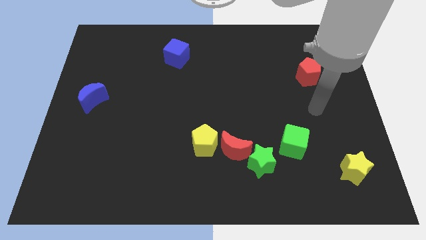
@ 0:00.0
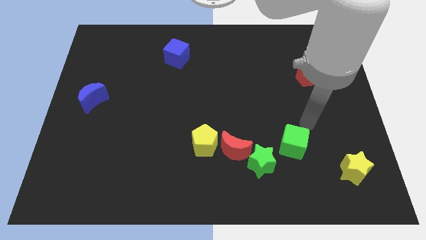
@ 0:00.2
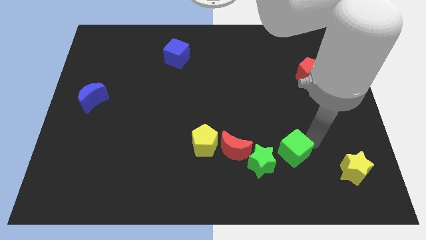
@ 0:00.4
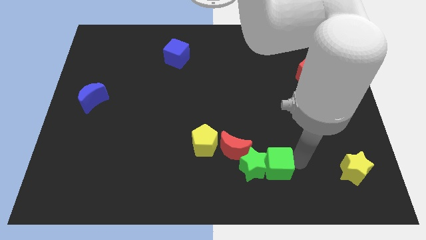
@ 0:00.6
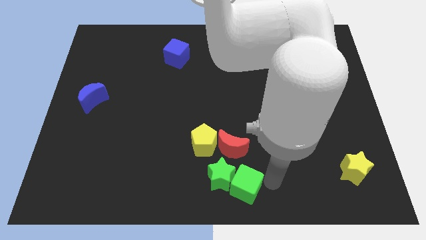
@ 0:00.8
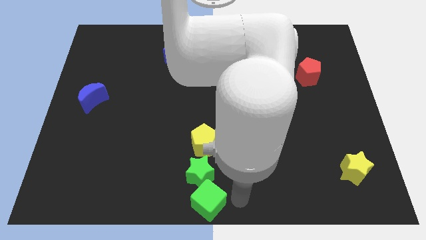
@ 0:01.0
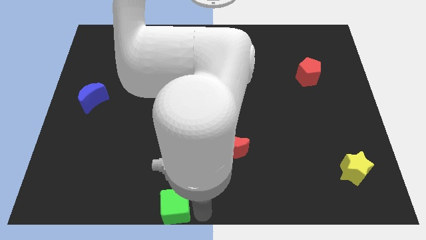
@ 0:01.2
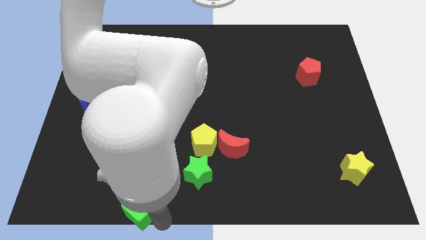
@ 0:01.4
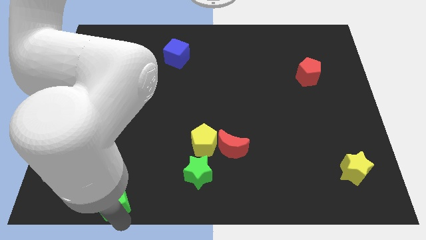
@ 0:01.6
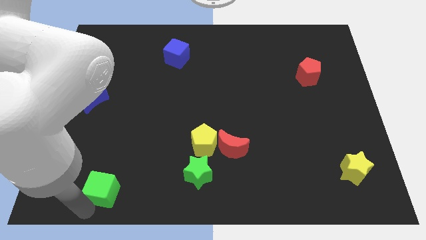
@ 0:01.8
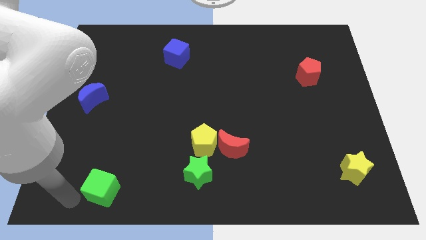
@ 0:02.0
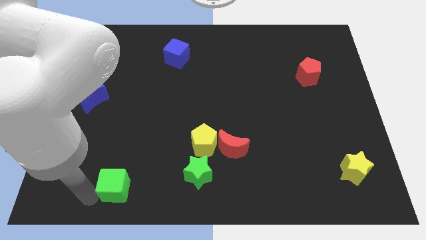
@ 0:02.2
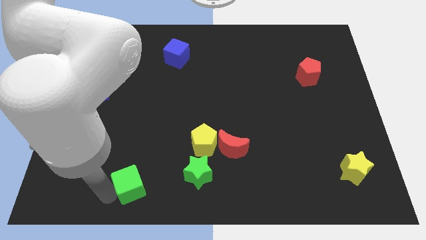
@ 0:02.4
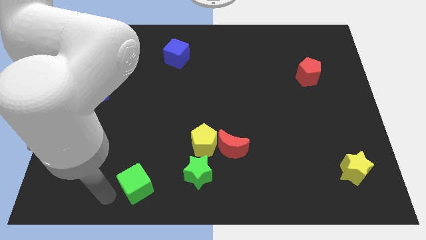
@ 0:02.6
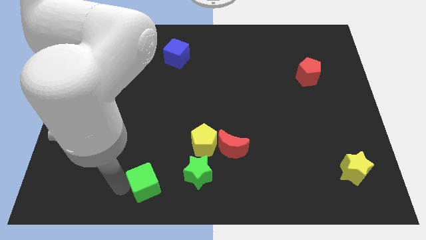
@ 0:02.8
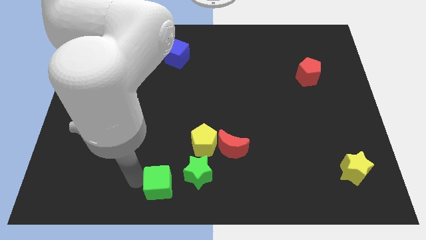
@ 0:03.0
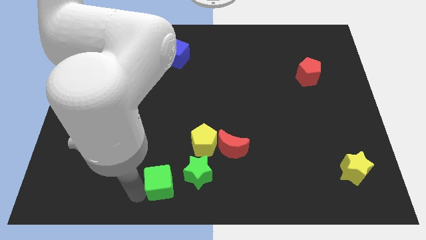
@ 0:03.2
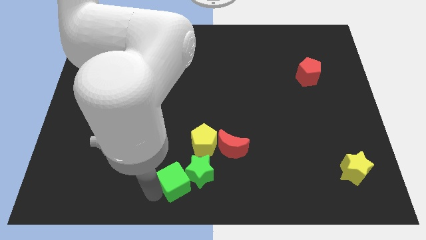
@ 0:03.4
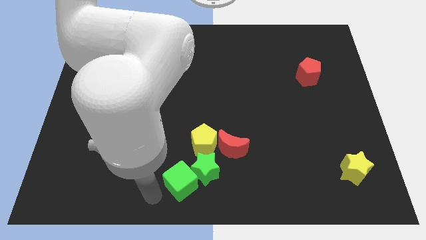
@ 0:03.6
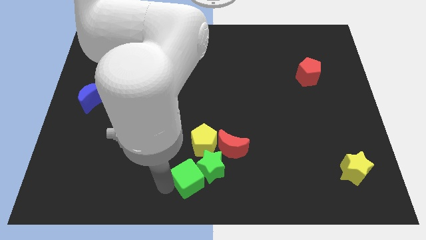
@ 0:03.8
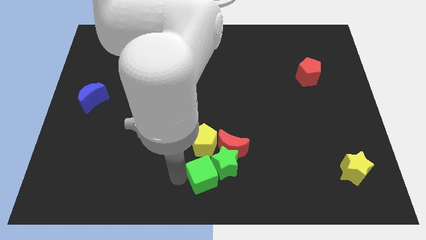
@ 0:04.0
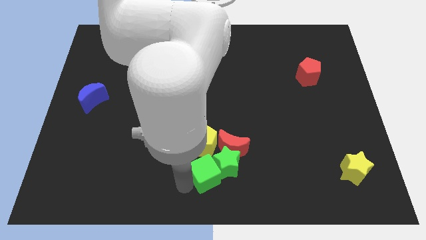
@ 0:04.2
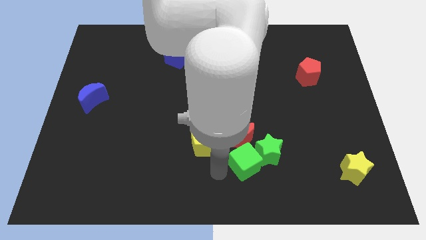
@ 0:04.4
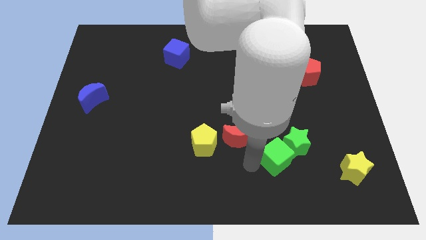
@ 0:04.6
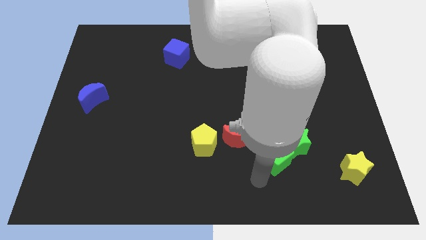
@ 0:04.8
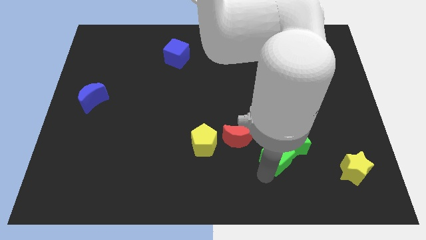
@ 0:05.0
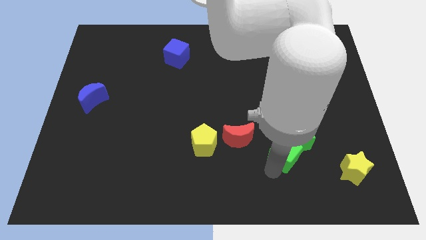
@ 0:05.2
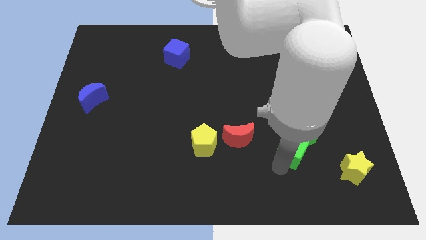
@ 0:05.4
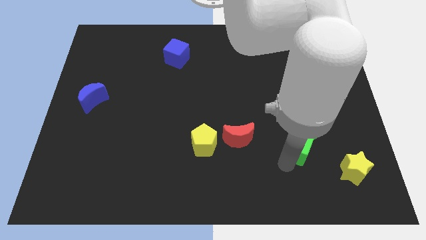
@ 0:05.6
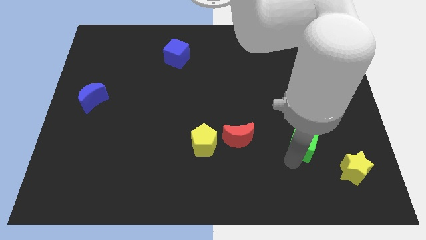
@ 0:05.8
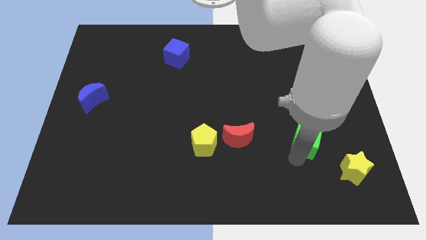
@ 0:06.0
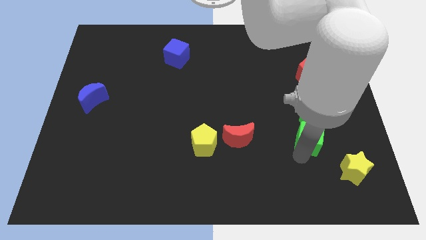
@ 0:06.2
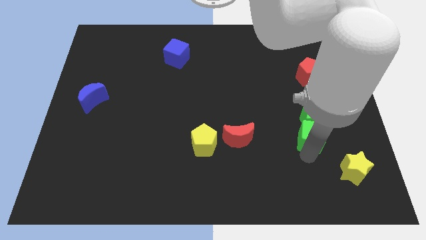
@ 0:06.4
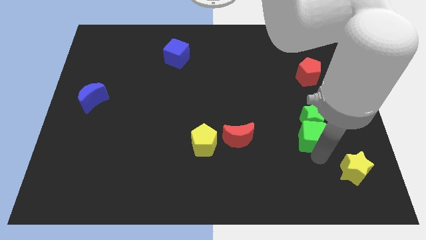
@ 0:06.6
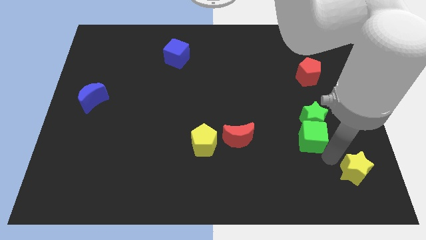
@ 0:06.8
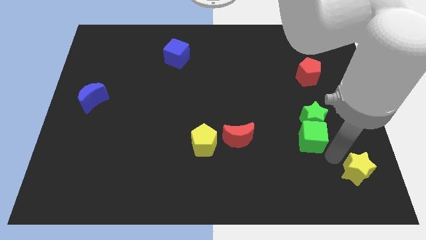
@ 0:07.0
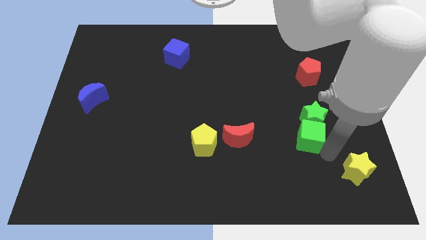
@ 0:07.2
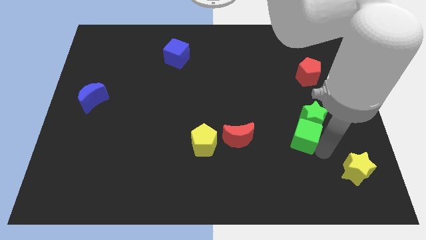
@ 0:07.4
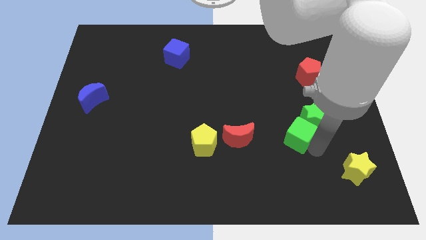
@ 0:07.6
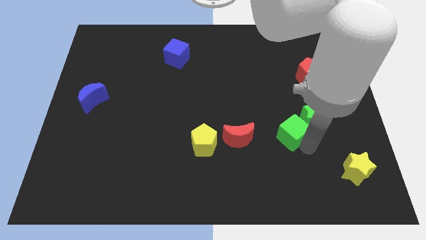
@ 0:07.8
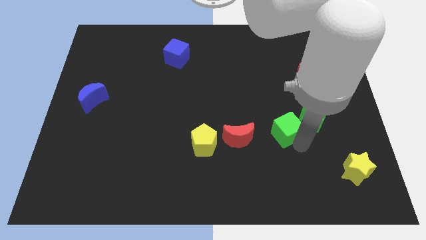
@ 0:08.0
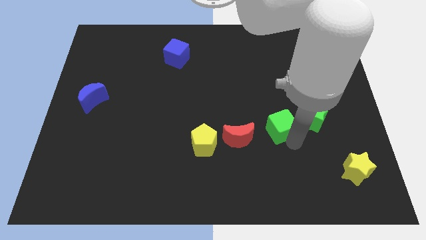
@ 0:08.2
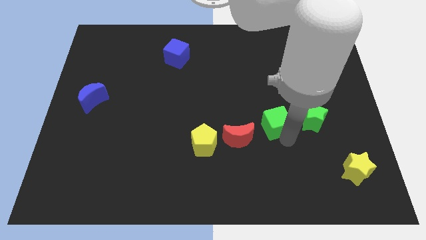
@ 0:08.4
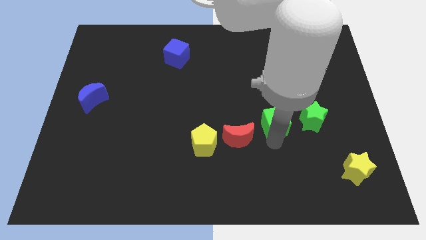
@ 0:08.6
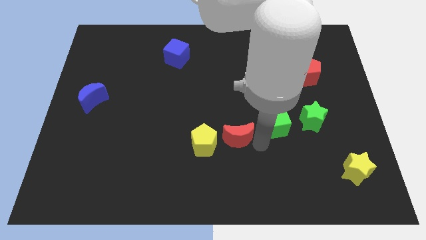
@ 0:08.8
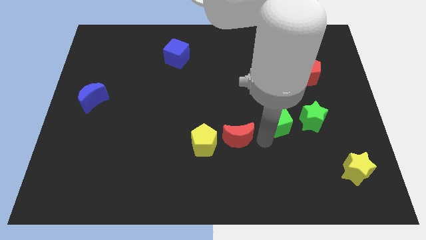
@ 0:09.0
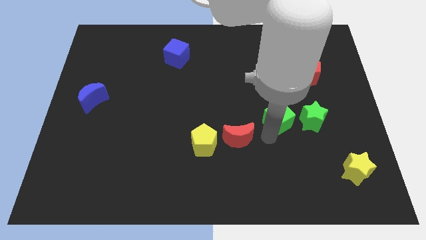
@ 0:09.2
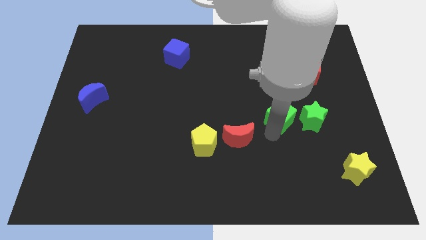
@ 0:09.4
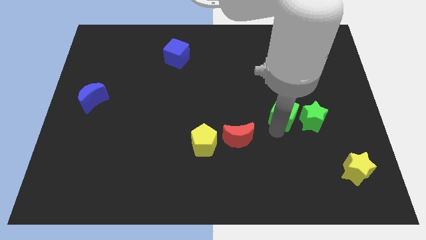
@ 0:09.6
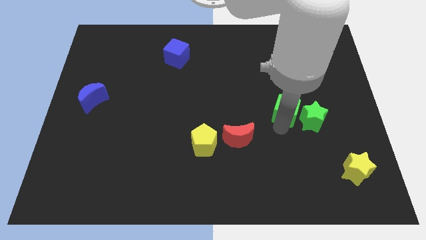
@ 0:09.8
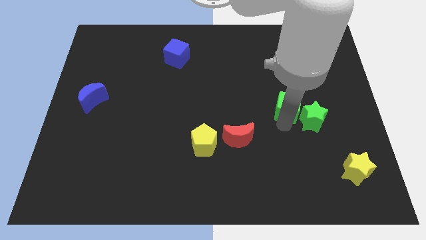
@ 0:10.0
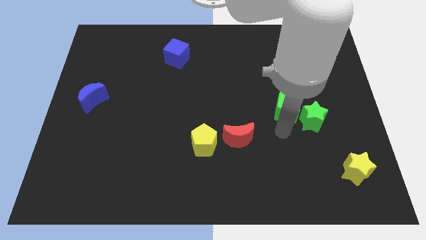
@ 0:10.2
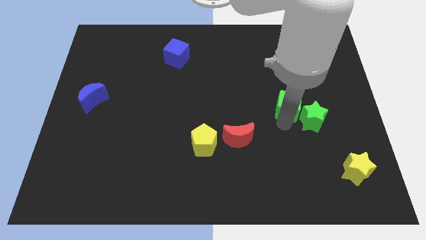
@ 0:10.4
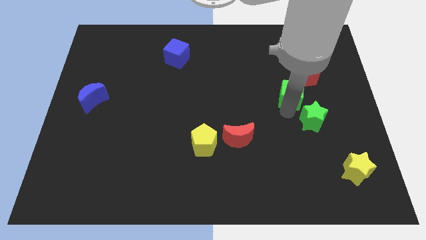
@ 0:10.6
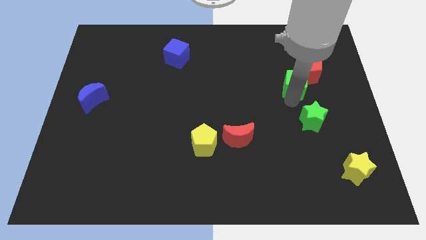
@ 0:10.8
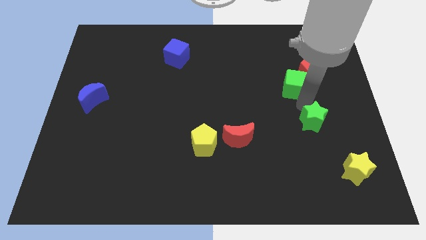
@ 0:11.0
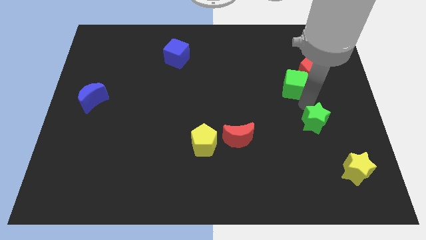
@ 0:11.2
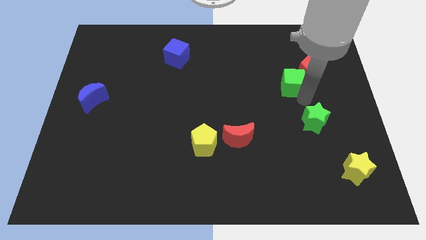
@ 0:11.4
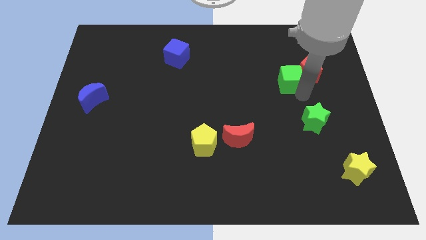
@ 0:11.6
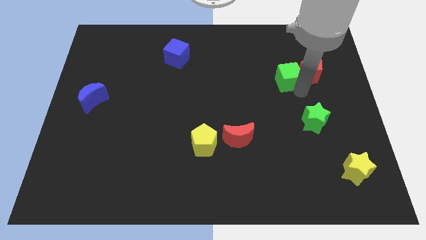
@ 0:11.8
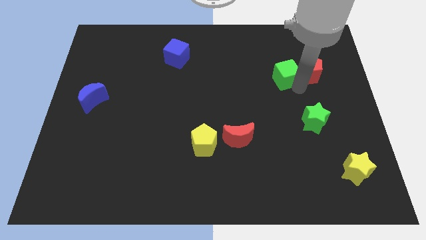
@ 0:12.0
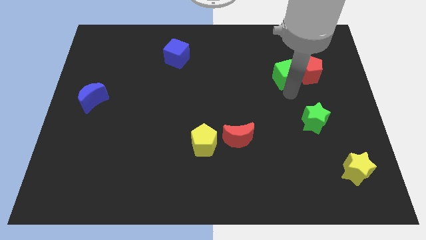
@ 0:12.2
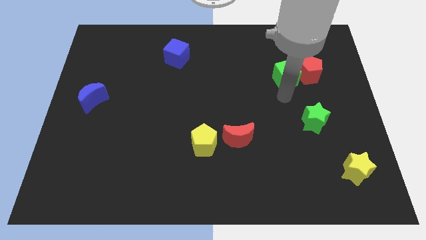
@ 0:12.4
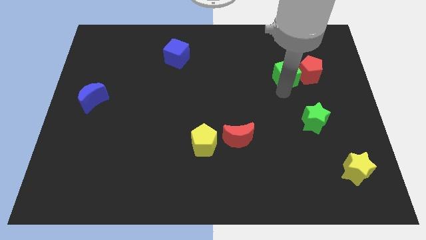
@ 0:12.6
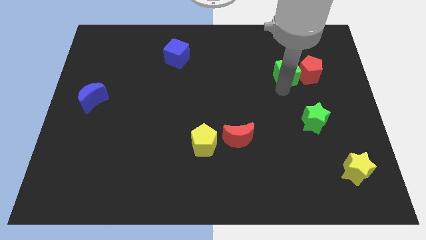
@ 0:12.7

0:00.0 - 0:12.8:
move the green cube to the top left side of the red pentagon
